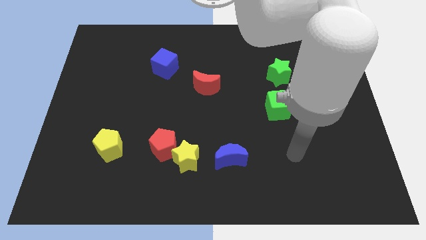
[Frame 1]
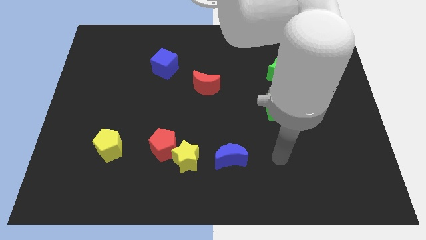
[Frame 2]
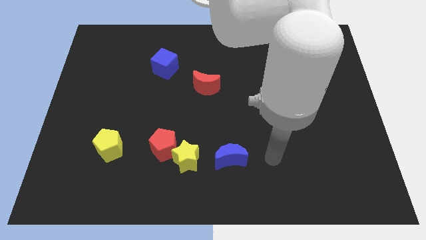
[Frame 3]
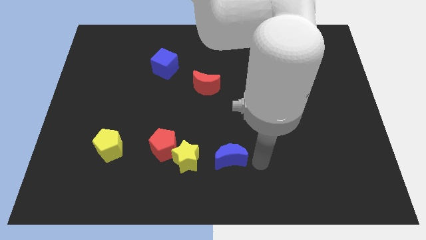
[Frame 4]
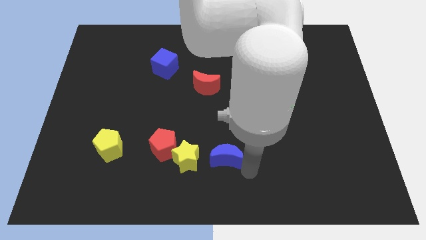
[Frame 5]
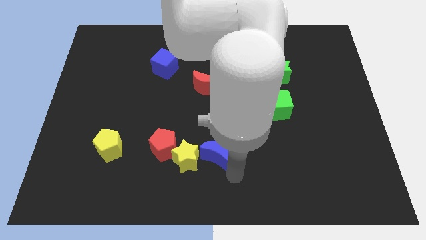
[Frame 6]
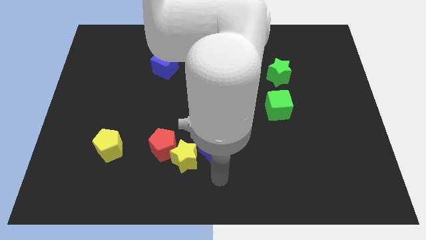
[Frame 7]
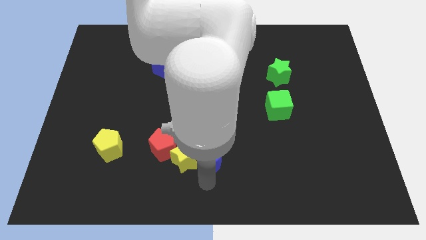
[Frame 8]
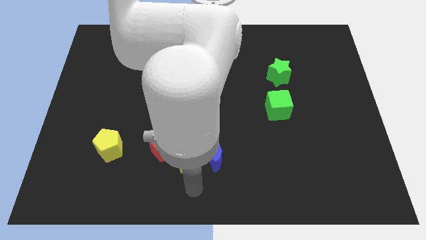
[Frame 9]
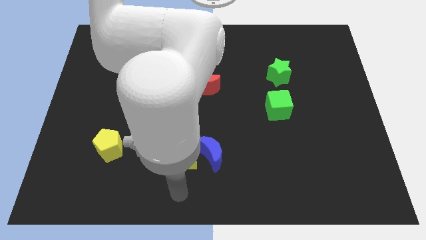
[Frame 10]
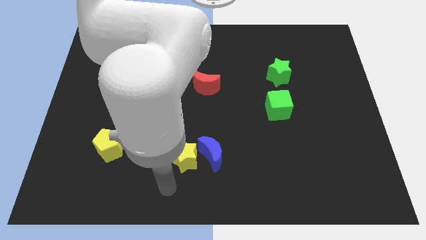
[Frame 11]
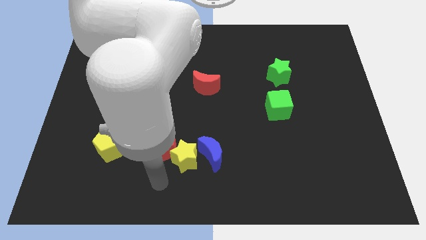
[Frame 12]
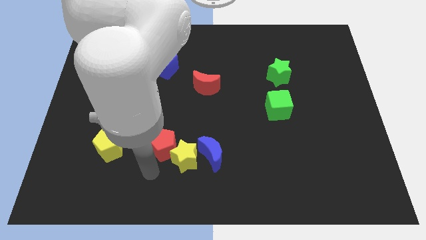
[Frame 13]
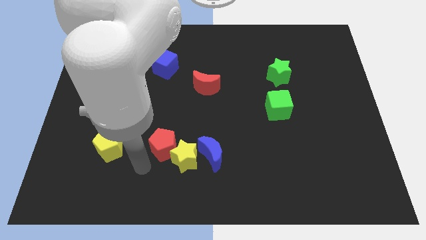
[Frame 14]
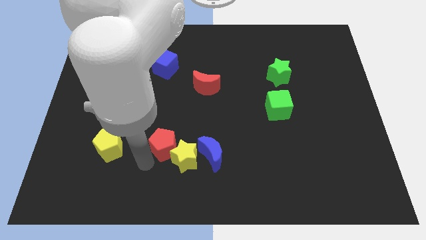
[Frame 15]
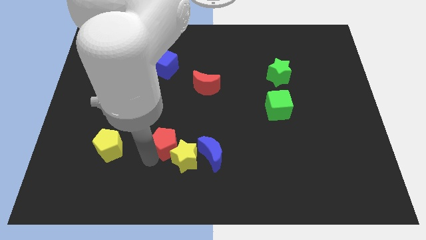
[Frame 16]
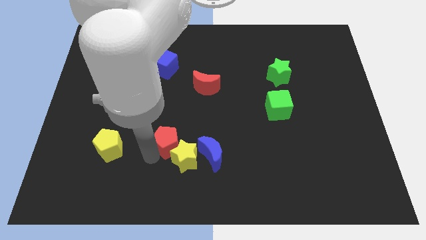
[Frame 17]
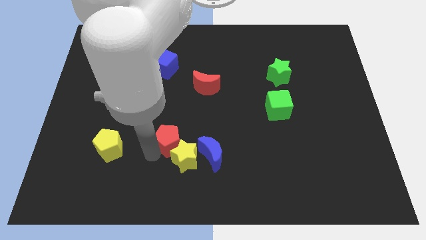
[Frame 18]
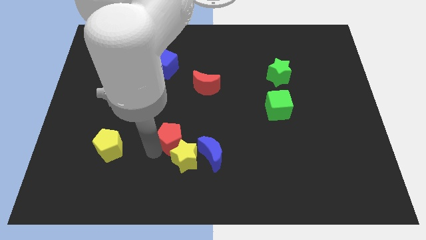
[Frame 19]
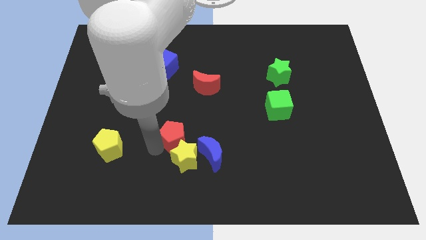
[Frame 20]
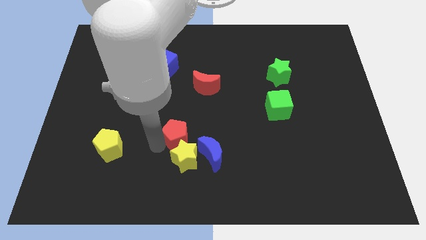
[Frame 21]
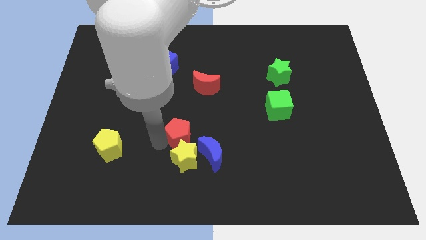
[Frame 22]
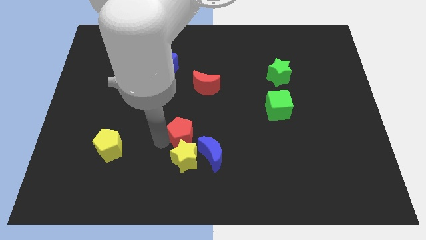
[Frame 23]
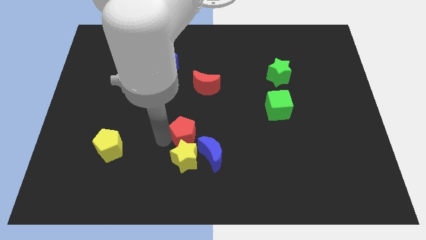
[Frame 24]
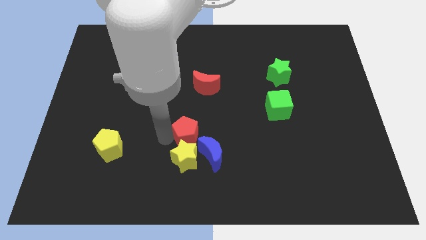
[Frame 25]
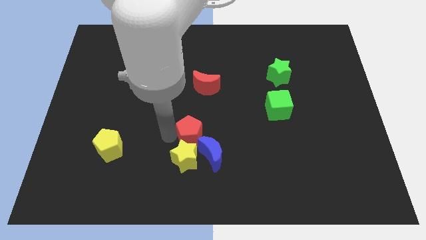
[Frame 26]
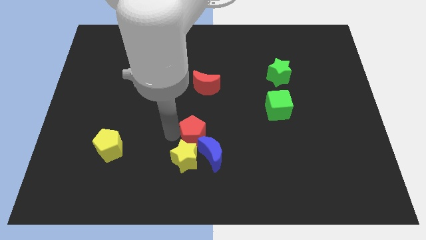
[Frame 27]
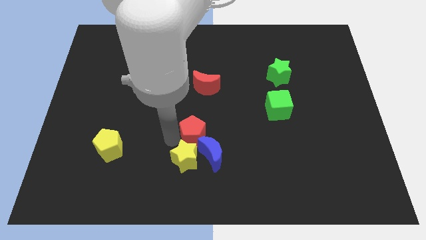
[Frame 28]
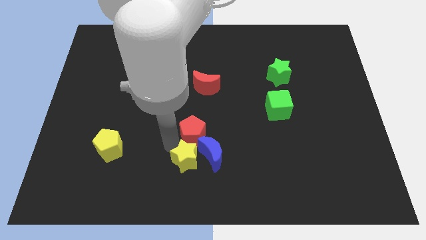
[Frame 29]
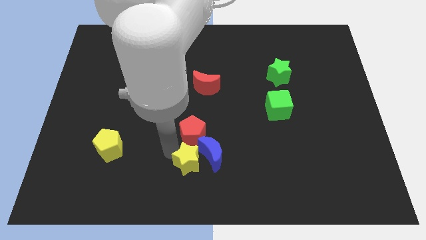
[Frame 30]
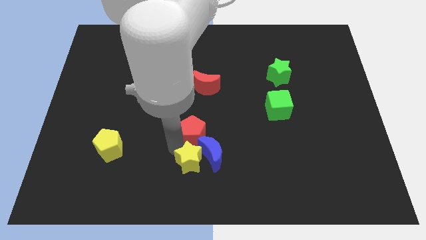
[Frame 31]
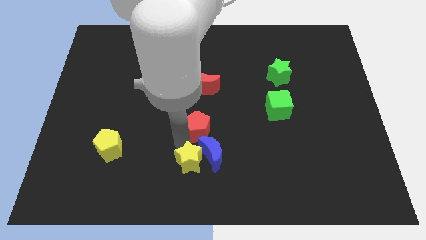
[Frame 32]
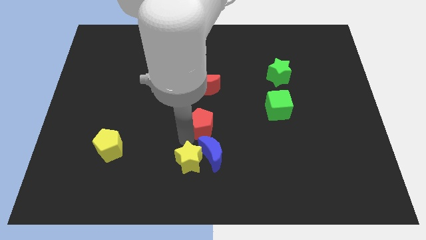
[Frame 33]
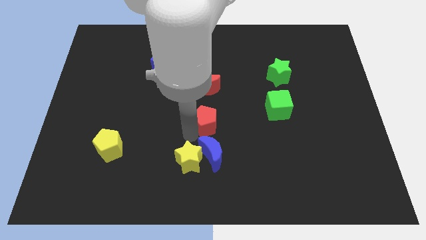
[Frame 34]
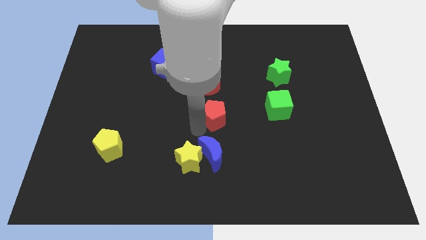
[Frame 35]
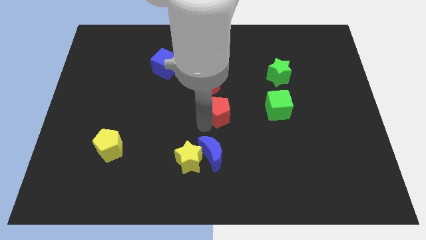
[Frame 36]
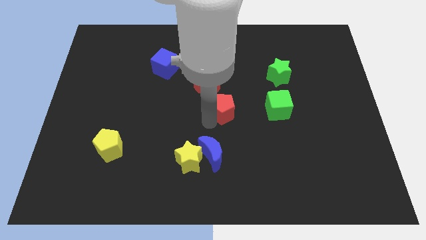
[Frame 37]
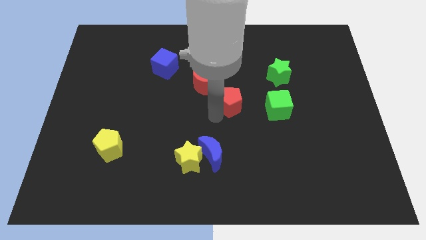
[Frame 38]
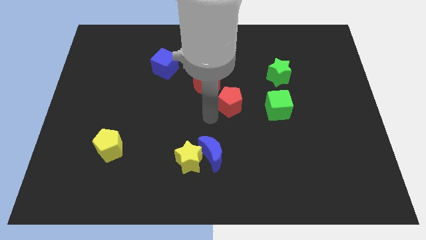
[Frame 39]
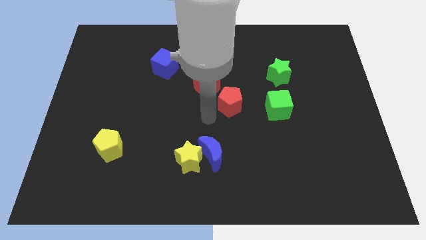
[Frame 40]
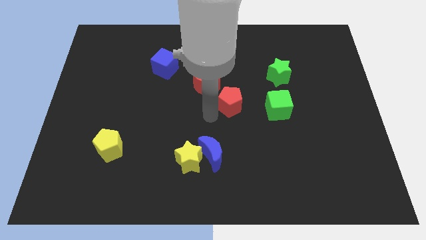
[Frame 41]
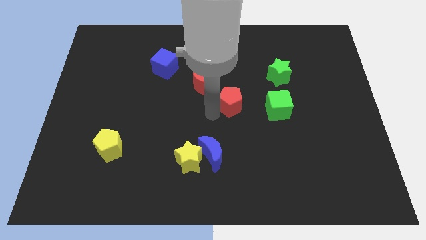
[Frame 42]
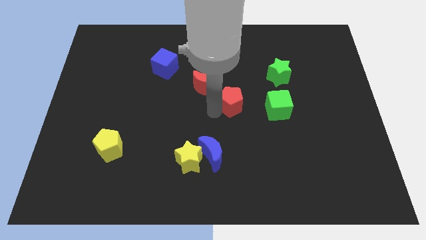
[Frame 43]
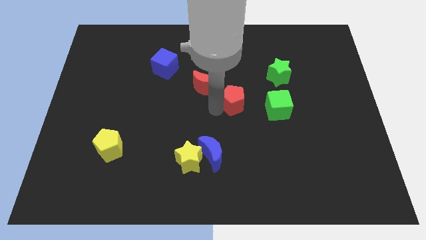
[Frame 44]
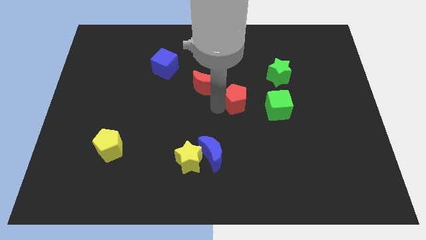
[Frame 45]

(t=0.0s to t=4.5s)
slide the red pentagon upwards and then to the right

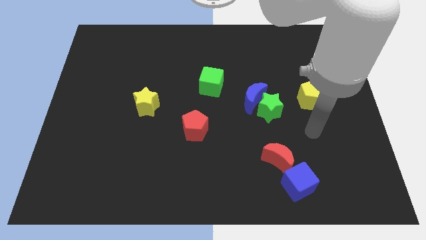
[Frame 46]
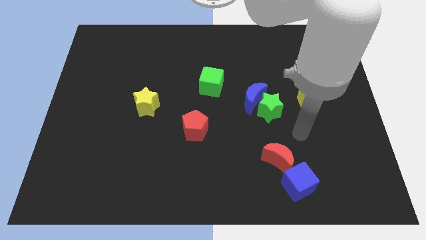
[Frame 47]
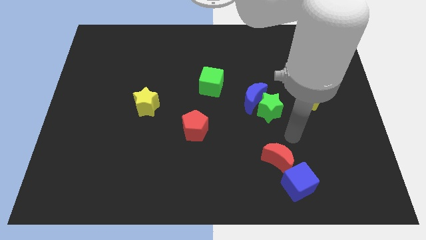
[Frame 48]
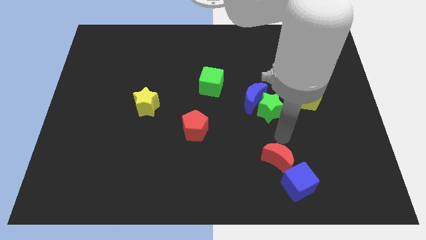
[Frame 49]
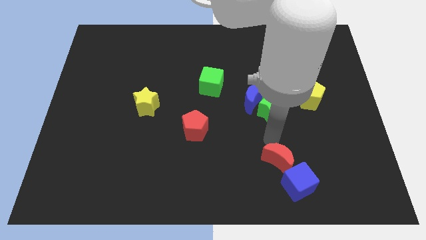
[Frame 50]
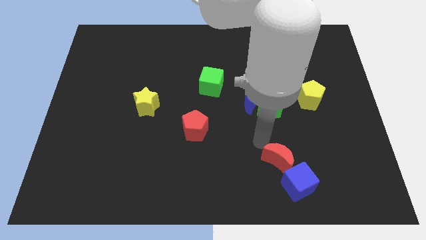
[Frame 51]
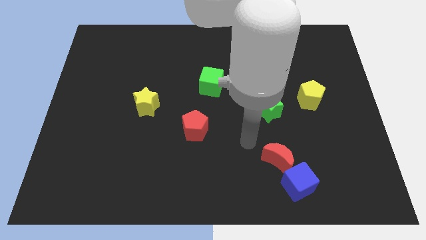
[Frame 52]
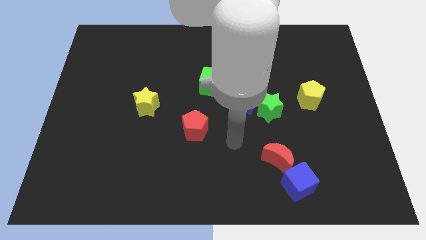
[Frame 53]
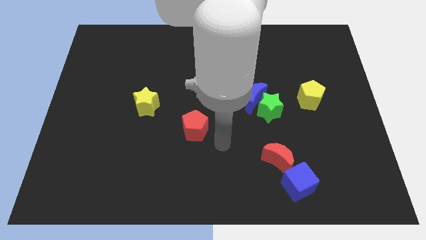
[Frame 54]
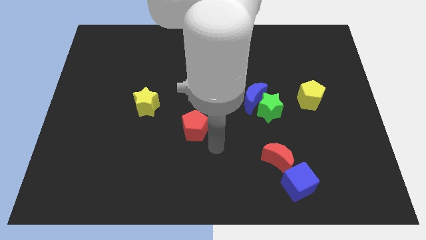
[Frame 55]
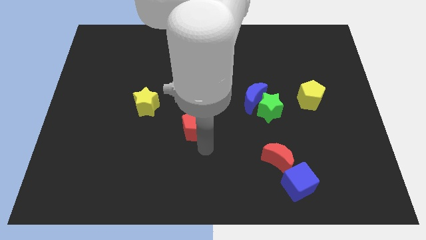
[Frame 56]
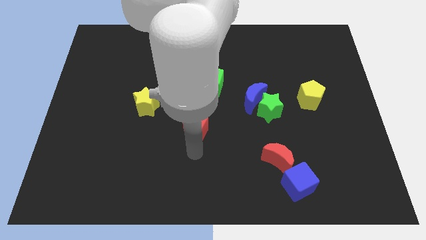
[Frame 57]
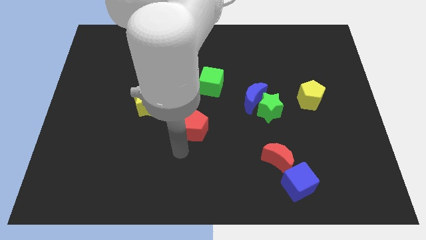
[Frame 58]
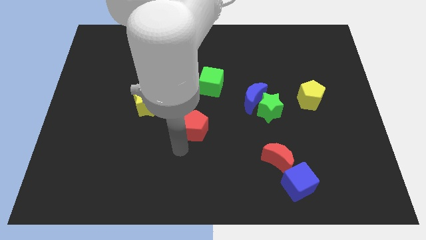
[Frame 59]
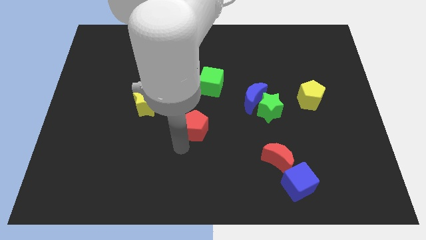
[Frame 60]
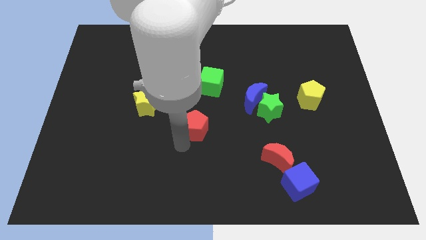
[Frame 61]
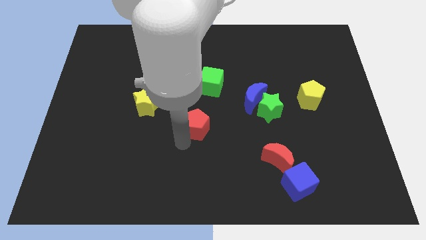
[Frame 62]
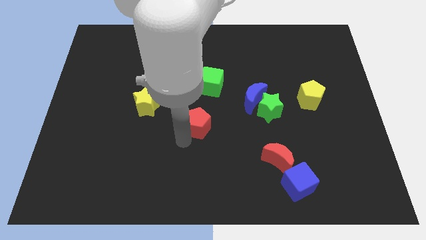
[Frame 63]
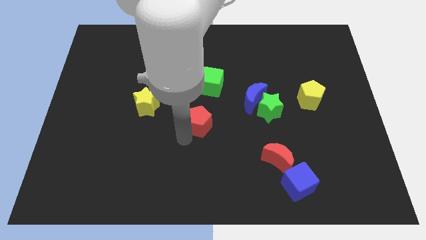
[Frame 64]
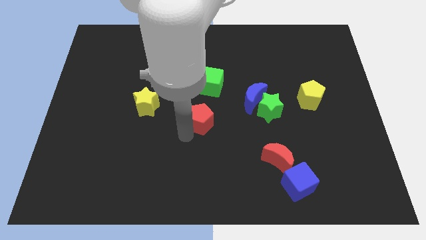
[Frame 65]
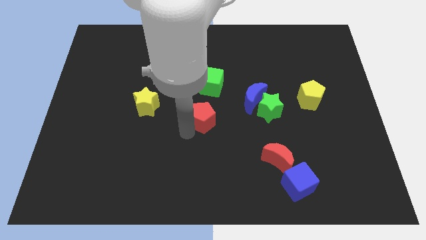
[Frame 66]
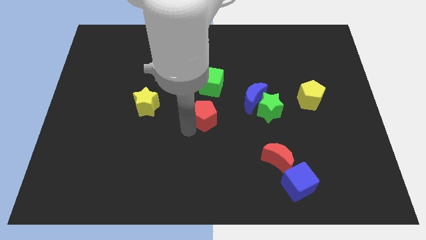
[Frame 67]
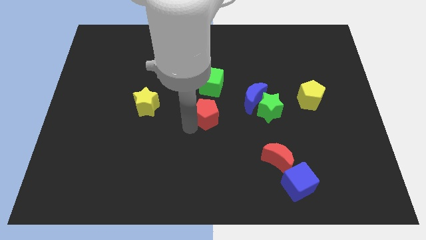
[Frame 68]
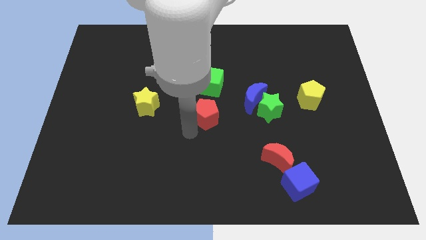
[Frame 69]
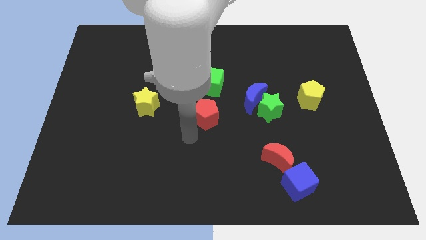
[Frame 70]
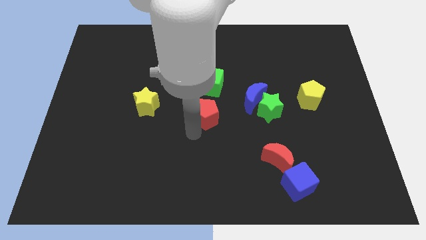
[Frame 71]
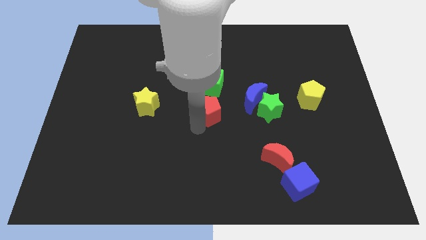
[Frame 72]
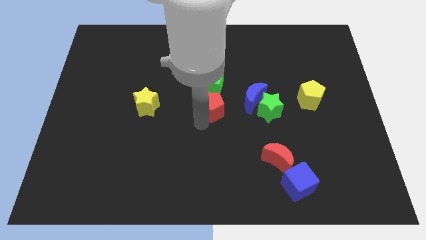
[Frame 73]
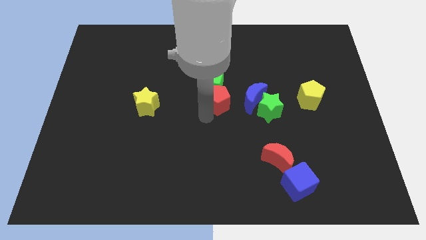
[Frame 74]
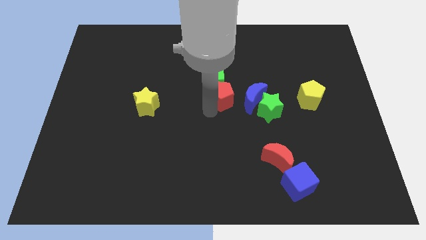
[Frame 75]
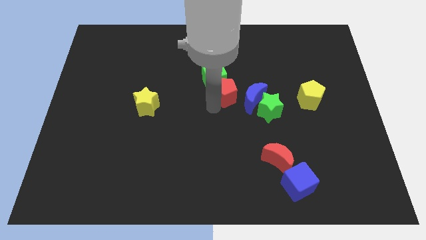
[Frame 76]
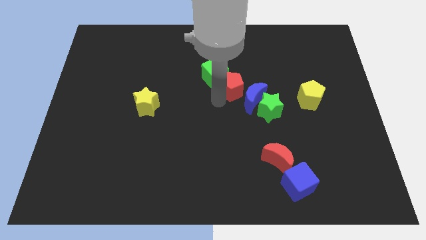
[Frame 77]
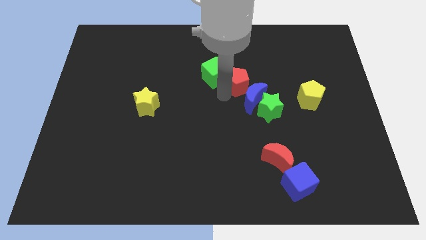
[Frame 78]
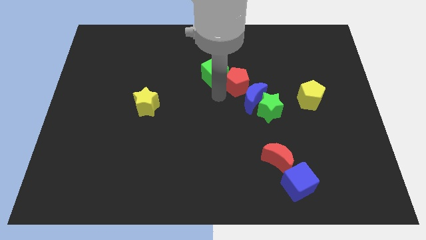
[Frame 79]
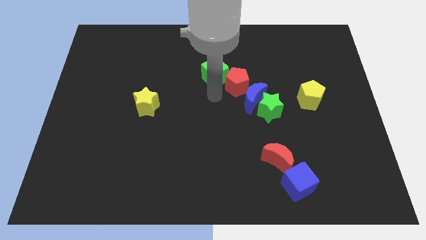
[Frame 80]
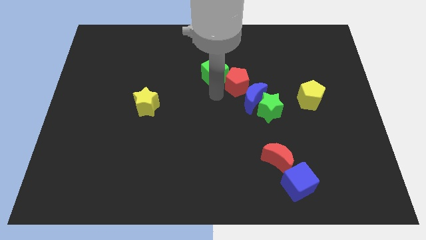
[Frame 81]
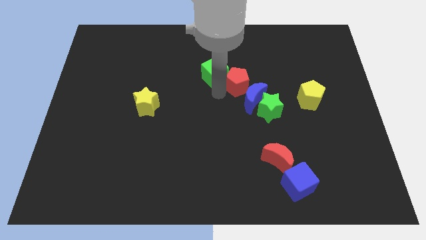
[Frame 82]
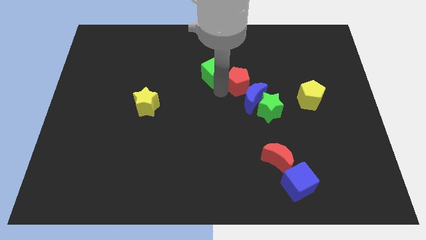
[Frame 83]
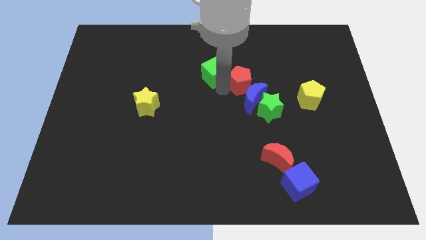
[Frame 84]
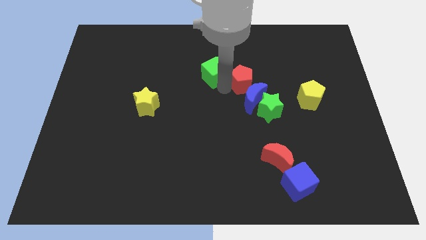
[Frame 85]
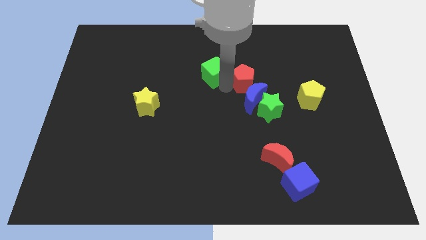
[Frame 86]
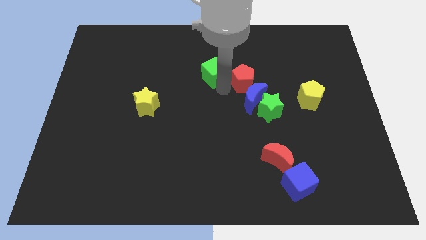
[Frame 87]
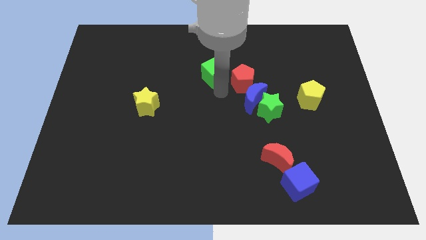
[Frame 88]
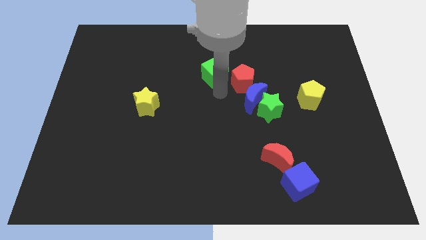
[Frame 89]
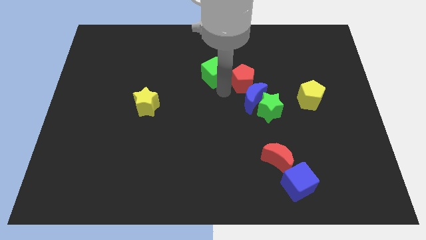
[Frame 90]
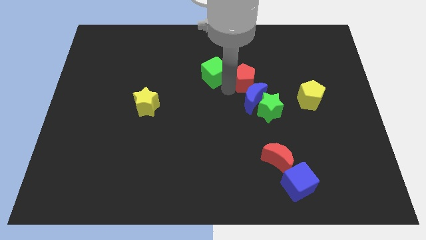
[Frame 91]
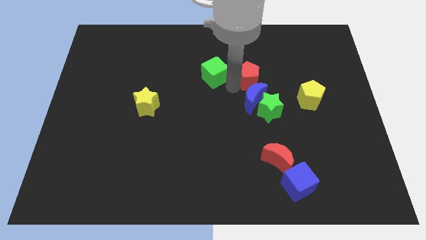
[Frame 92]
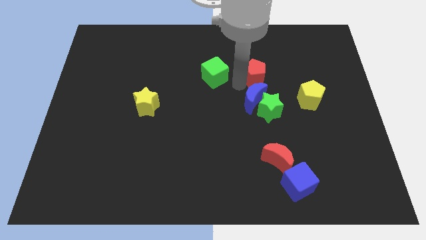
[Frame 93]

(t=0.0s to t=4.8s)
move the red pentagon upwards and to the right
